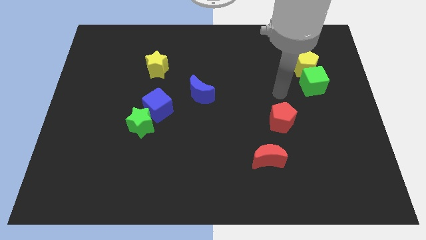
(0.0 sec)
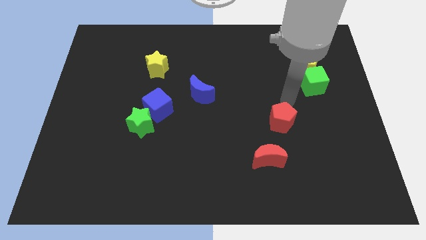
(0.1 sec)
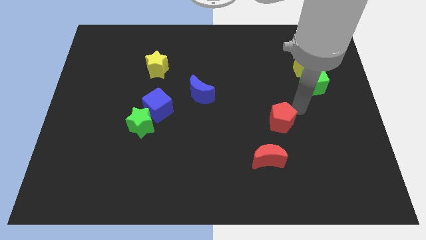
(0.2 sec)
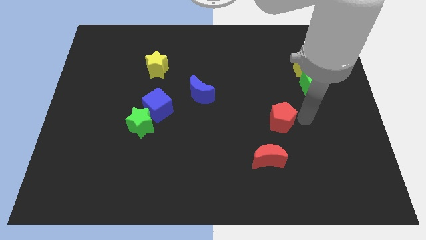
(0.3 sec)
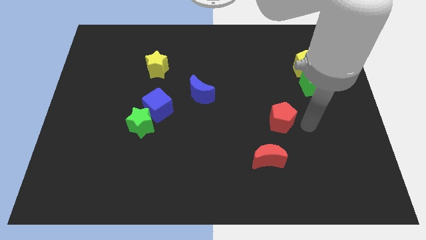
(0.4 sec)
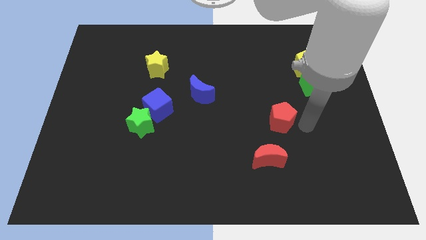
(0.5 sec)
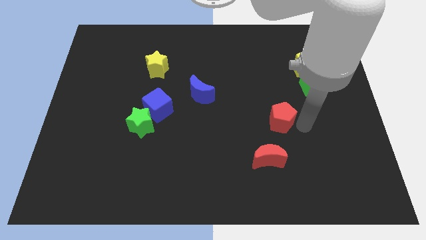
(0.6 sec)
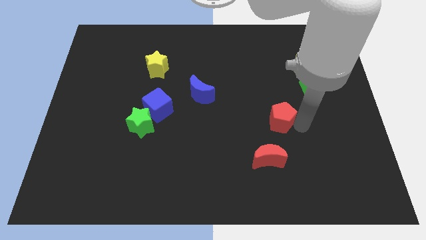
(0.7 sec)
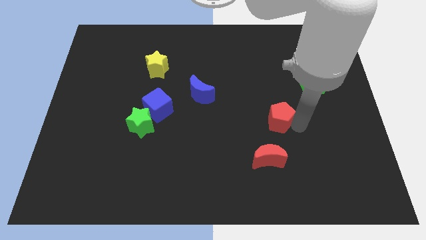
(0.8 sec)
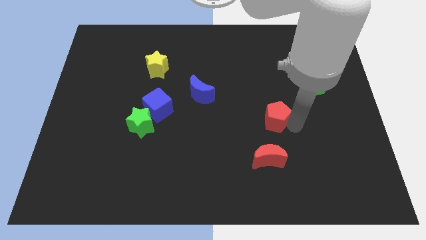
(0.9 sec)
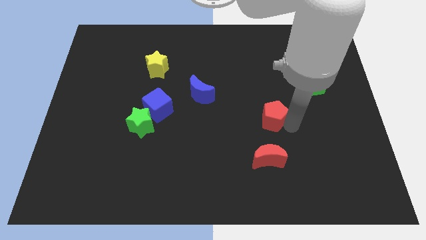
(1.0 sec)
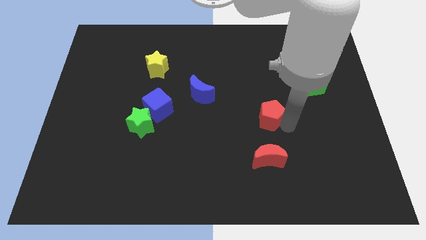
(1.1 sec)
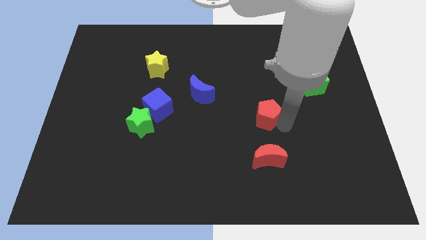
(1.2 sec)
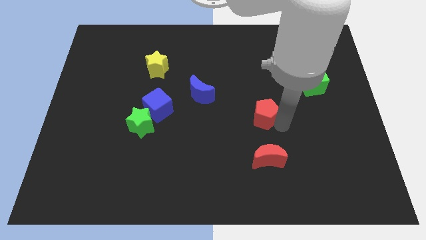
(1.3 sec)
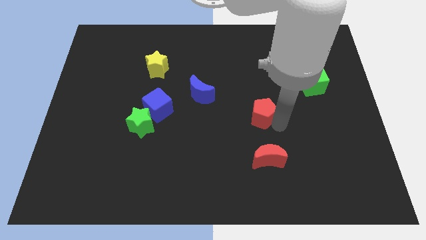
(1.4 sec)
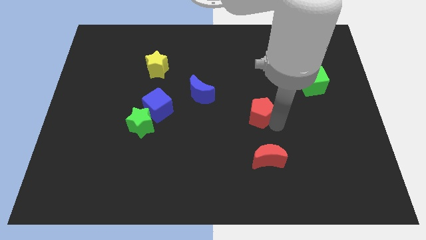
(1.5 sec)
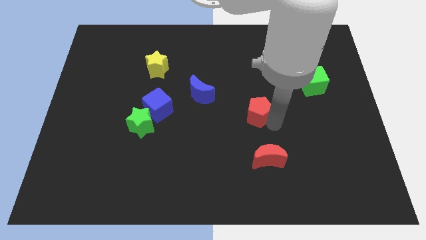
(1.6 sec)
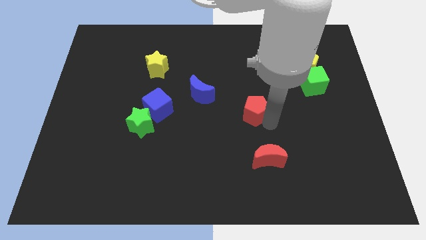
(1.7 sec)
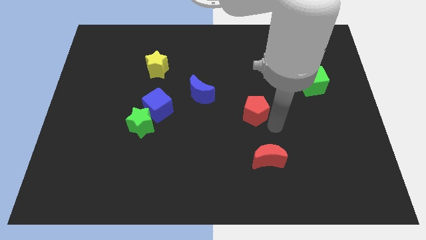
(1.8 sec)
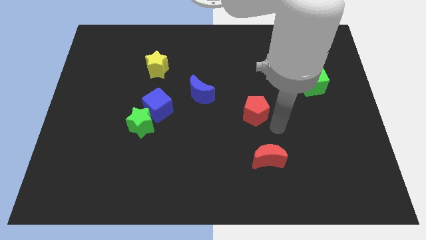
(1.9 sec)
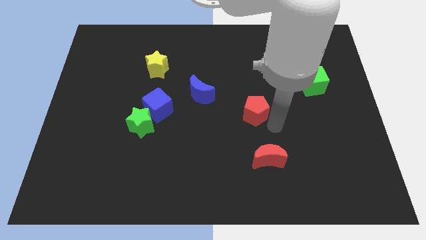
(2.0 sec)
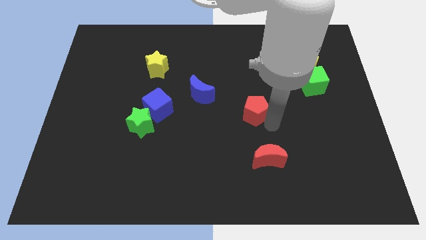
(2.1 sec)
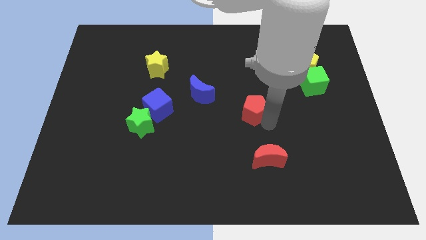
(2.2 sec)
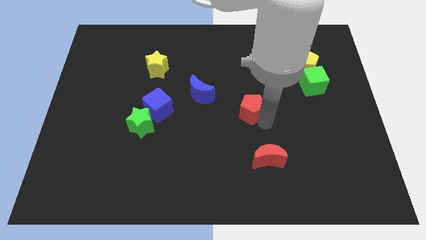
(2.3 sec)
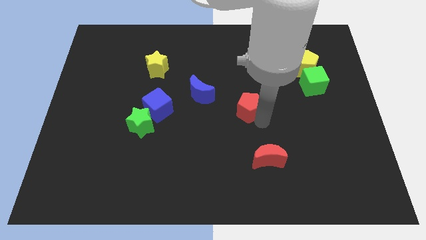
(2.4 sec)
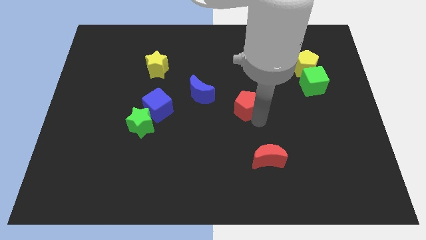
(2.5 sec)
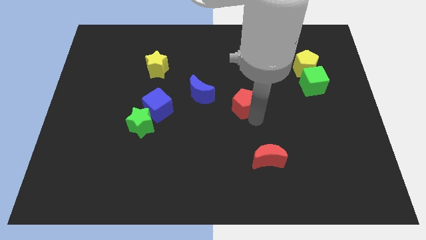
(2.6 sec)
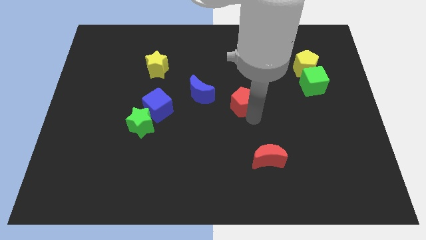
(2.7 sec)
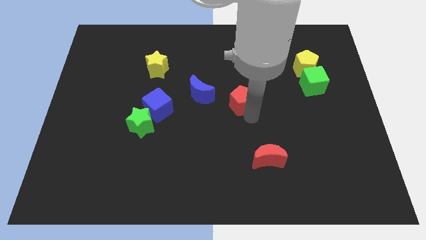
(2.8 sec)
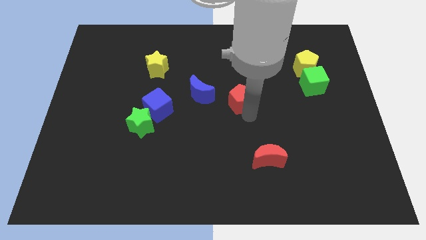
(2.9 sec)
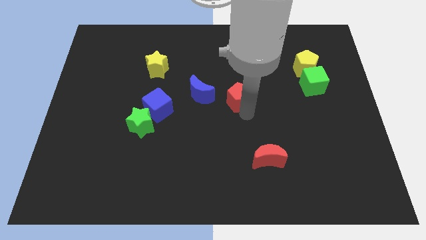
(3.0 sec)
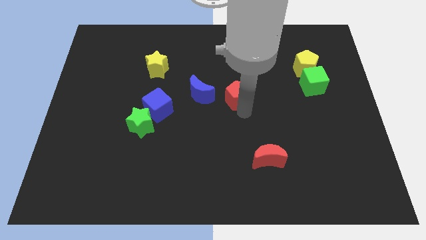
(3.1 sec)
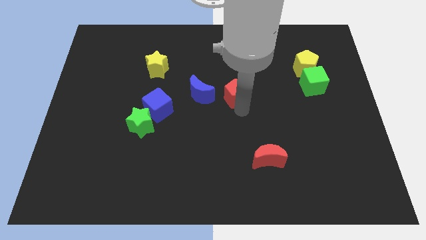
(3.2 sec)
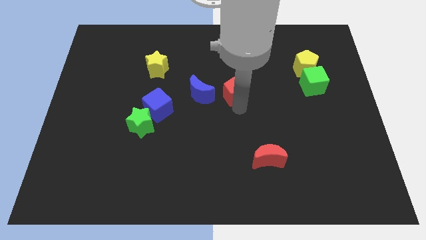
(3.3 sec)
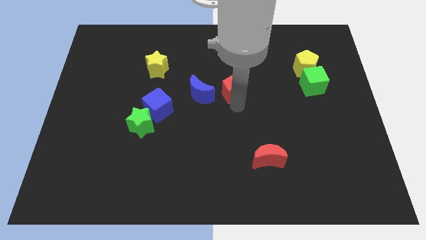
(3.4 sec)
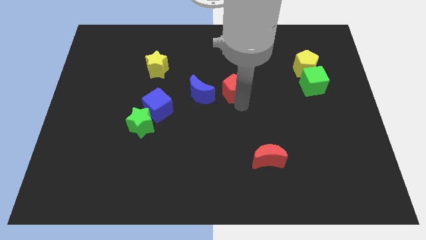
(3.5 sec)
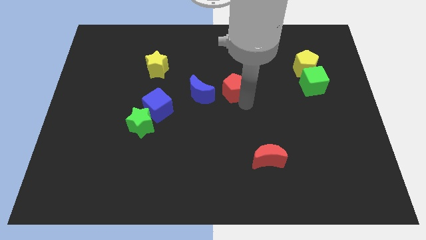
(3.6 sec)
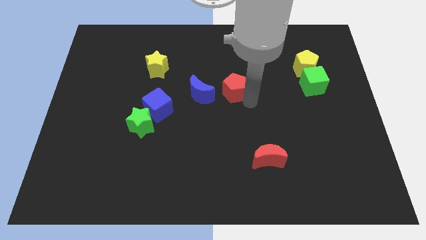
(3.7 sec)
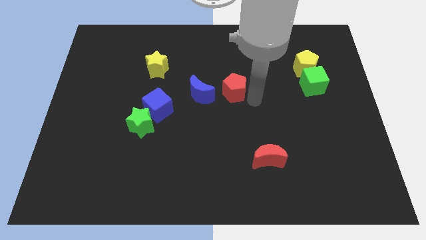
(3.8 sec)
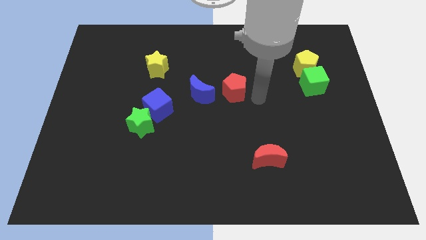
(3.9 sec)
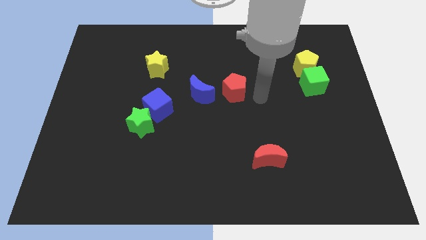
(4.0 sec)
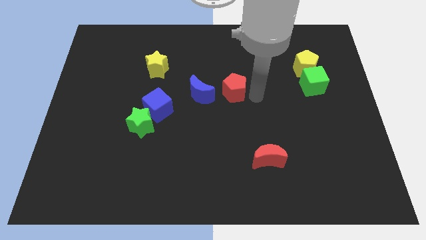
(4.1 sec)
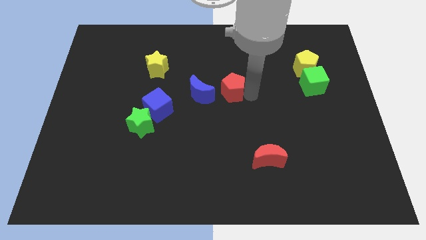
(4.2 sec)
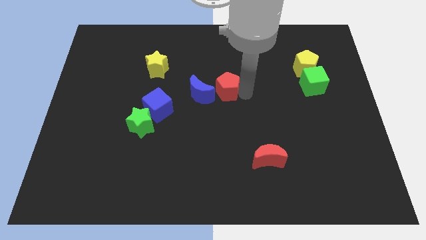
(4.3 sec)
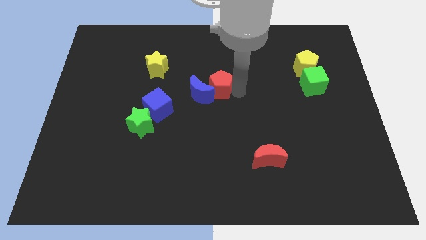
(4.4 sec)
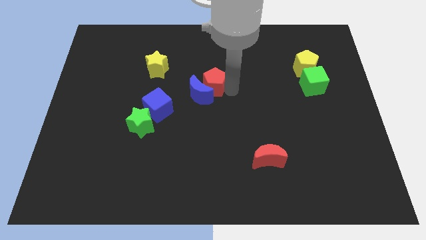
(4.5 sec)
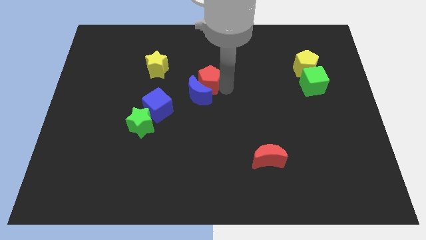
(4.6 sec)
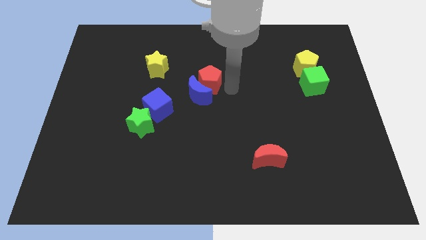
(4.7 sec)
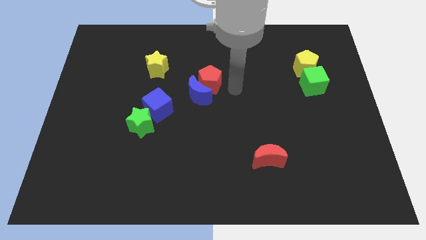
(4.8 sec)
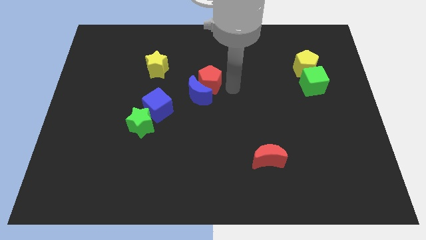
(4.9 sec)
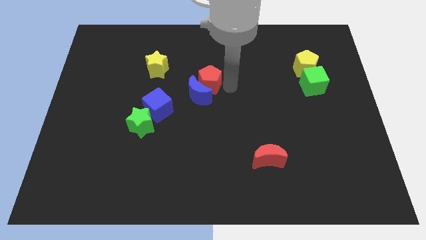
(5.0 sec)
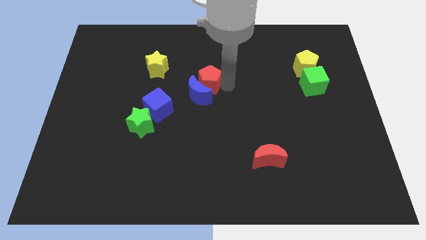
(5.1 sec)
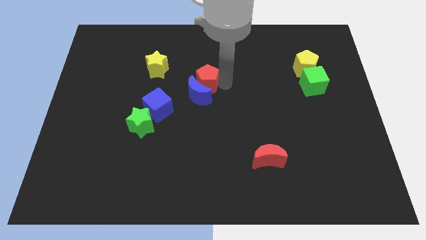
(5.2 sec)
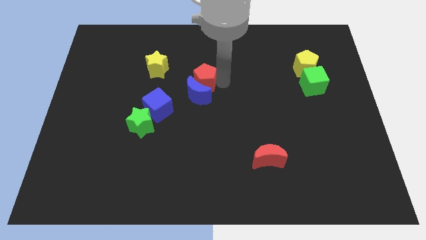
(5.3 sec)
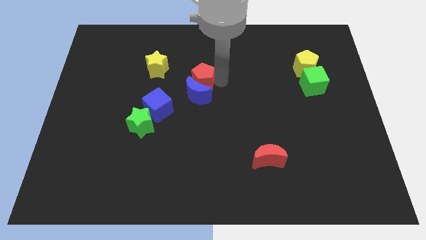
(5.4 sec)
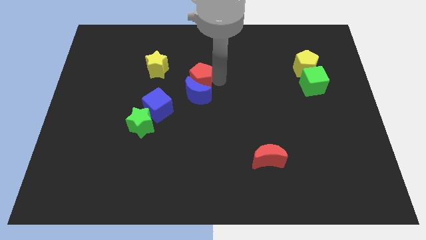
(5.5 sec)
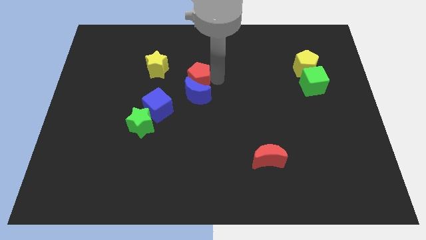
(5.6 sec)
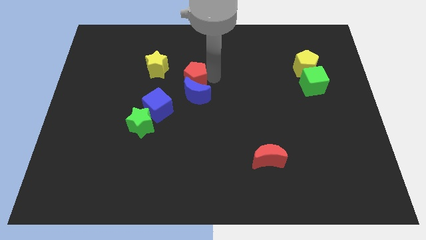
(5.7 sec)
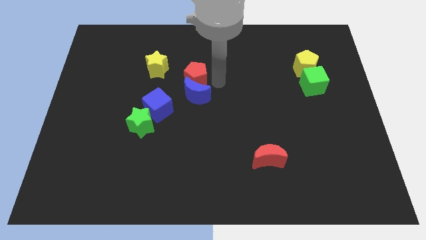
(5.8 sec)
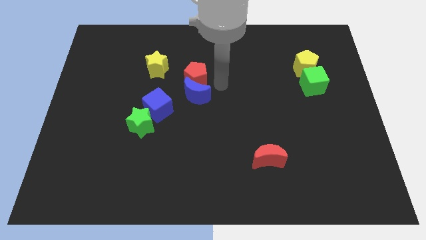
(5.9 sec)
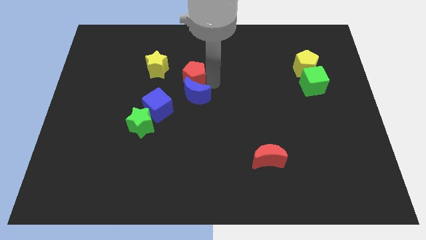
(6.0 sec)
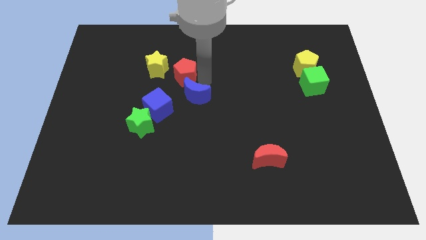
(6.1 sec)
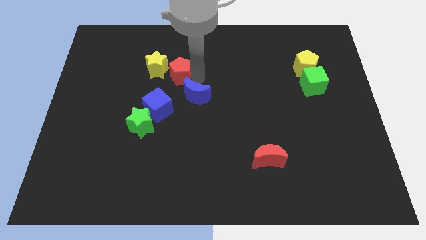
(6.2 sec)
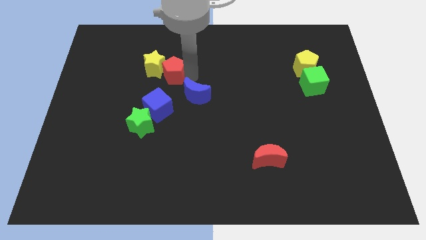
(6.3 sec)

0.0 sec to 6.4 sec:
put the red pentagon towards the yellow star
